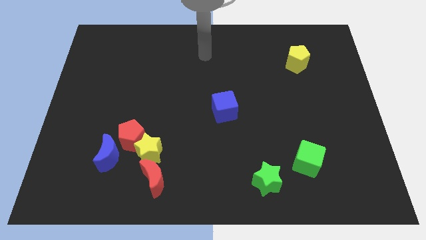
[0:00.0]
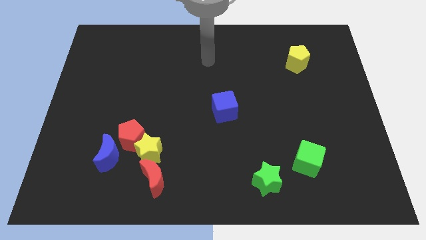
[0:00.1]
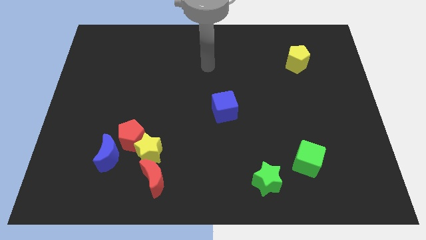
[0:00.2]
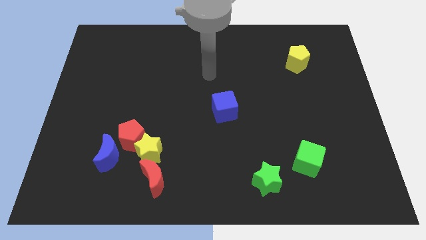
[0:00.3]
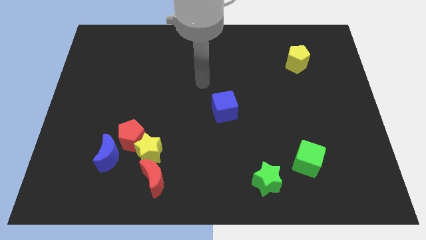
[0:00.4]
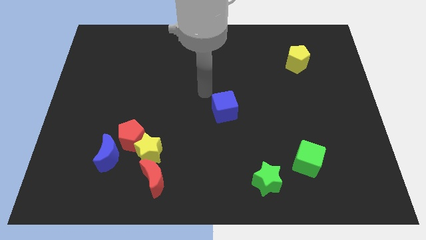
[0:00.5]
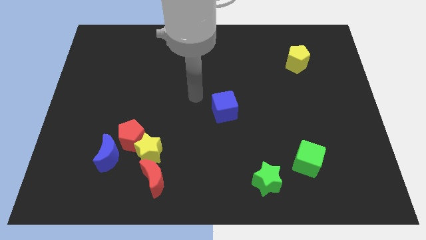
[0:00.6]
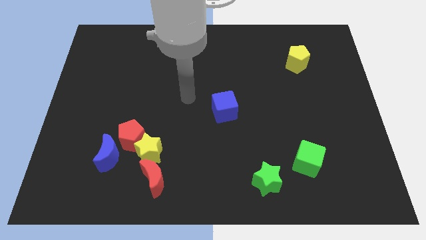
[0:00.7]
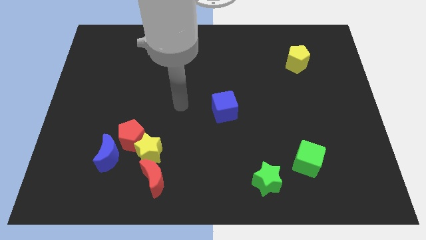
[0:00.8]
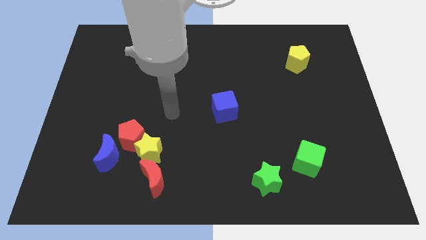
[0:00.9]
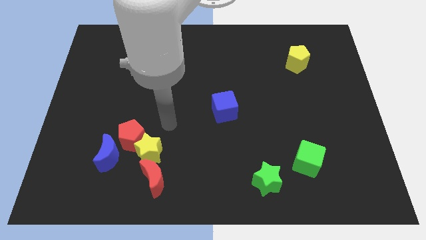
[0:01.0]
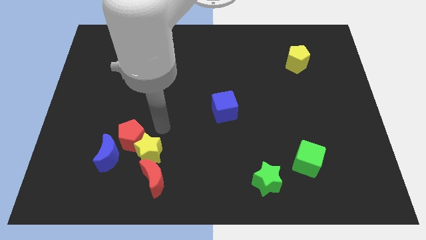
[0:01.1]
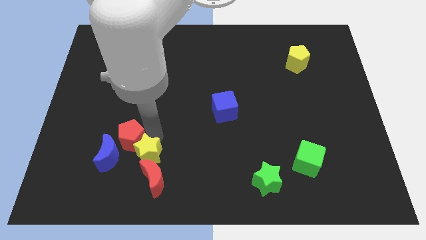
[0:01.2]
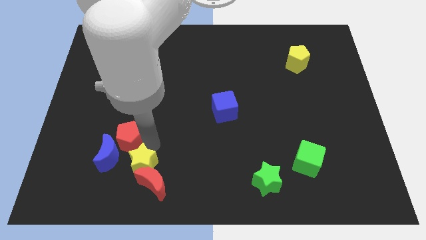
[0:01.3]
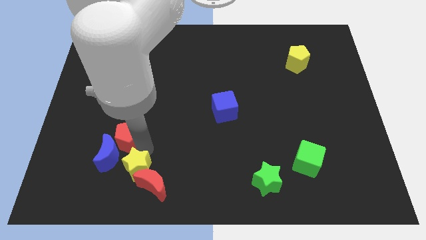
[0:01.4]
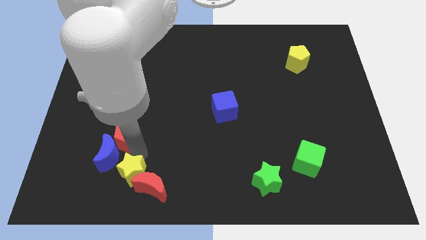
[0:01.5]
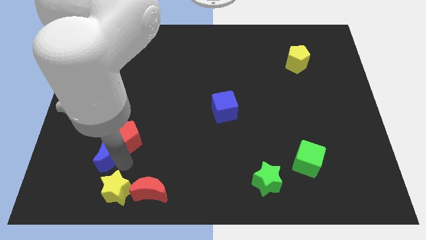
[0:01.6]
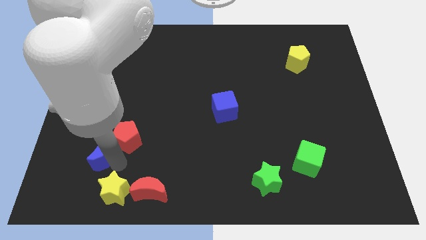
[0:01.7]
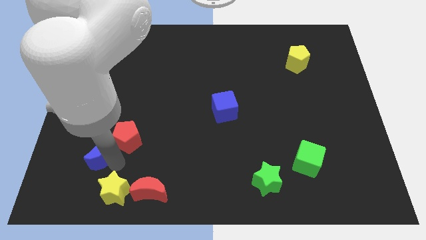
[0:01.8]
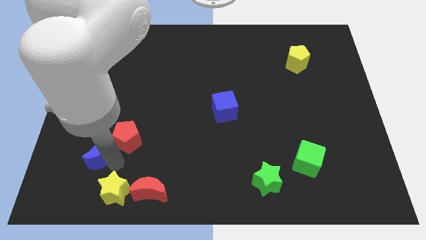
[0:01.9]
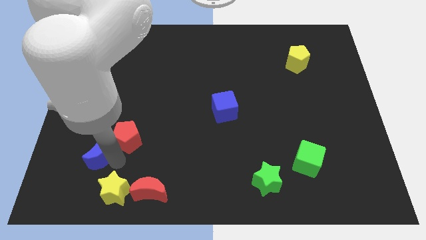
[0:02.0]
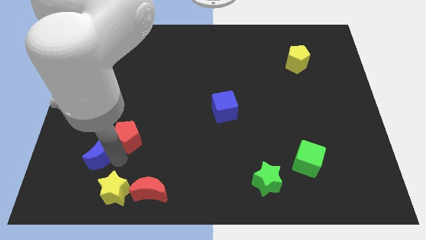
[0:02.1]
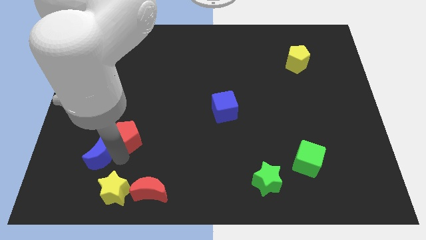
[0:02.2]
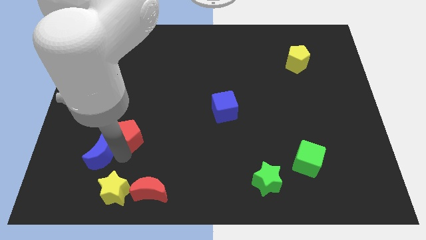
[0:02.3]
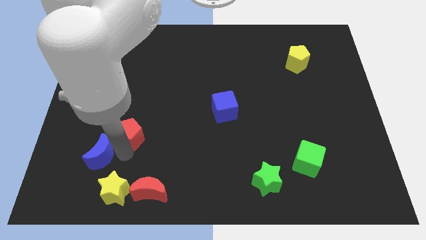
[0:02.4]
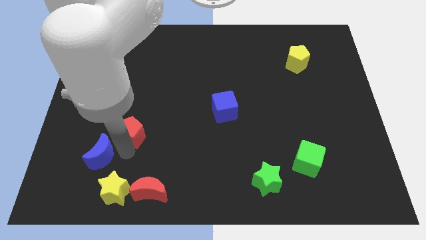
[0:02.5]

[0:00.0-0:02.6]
move the red pentagon away from the yellow star and blue moon

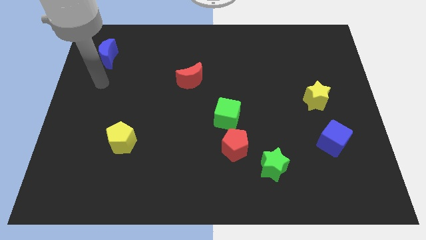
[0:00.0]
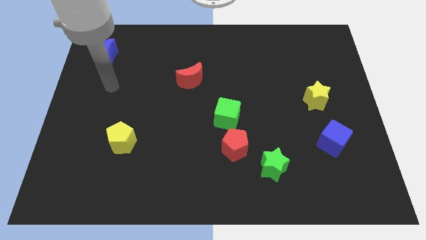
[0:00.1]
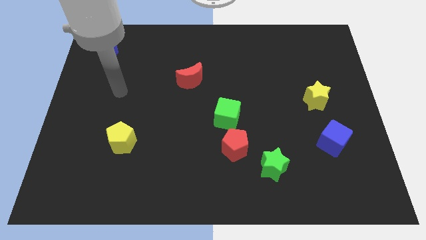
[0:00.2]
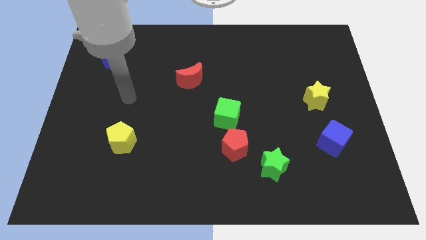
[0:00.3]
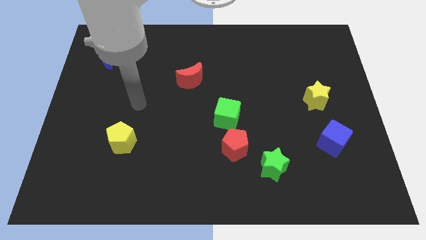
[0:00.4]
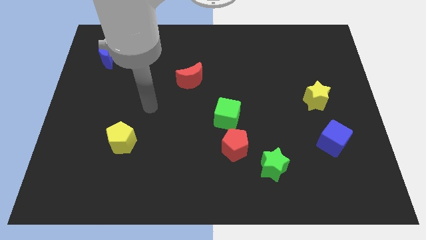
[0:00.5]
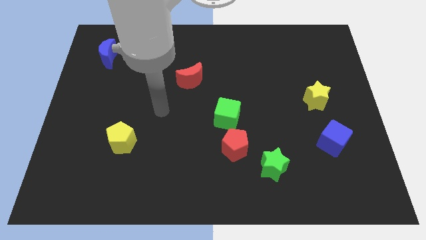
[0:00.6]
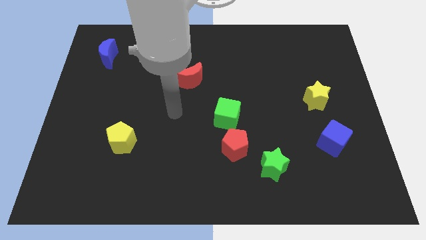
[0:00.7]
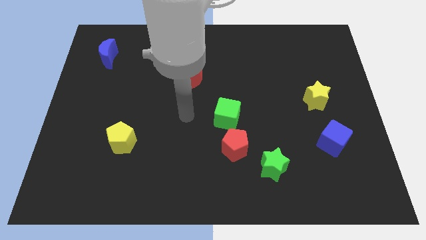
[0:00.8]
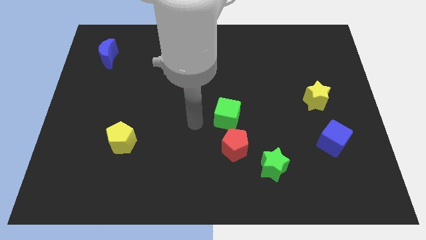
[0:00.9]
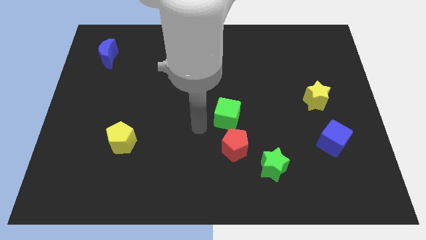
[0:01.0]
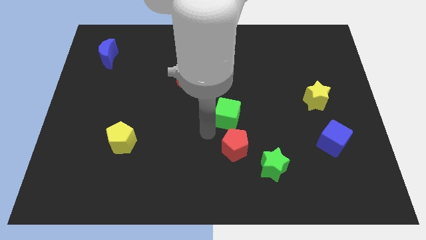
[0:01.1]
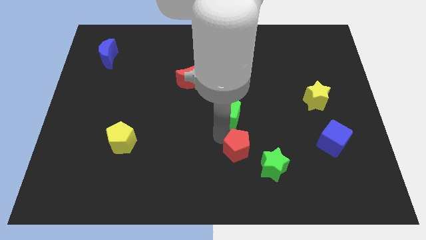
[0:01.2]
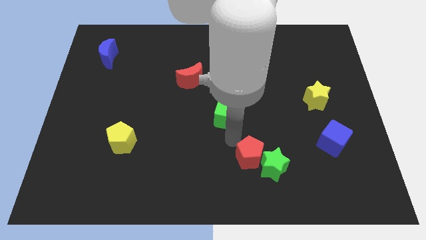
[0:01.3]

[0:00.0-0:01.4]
pull the green cube apart from the red pentagon

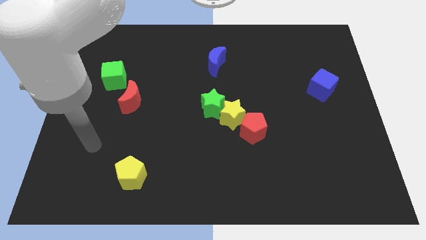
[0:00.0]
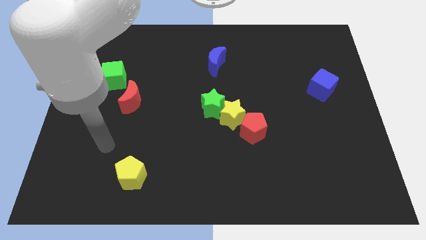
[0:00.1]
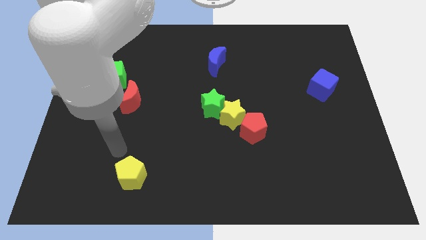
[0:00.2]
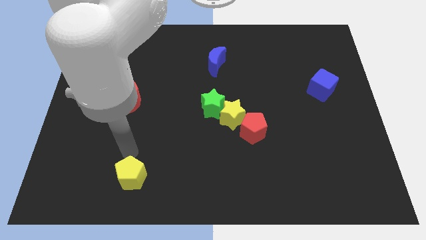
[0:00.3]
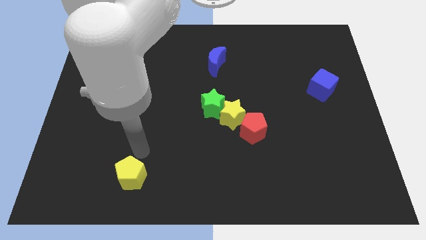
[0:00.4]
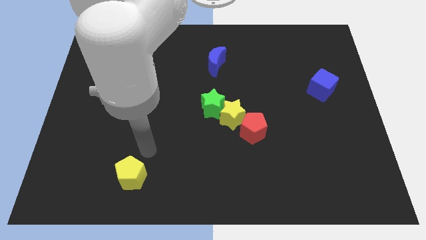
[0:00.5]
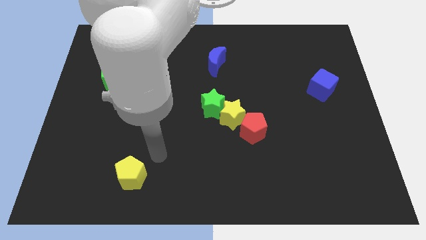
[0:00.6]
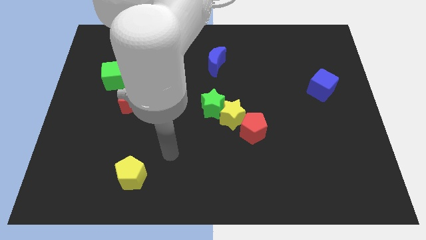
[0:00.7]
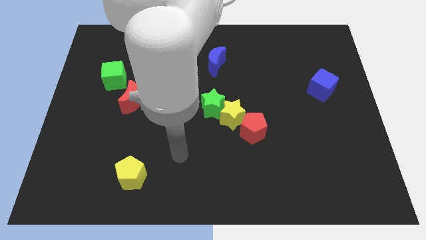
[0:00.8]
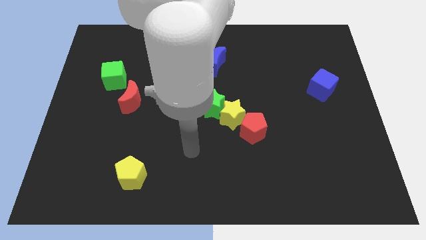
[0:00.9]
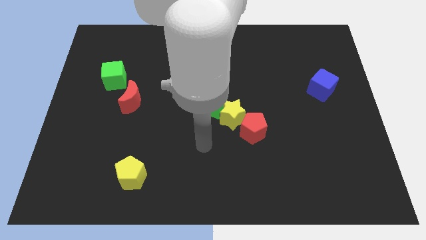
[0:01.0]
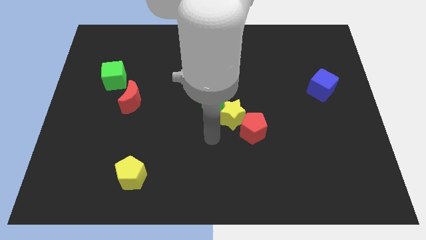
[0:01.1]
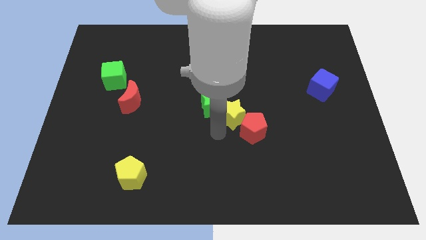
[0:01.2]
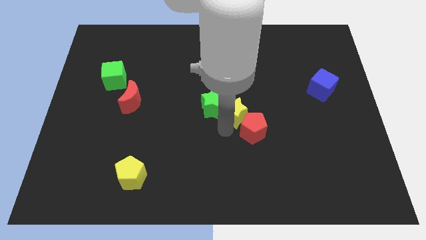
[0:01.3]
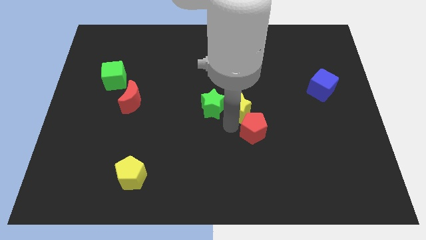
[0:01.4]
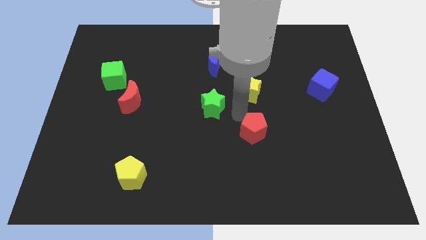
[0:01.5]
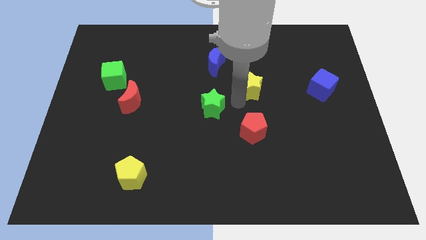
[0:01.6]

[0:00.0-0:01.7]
pull the green star apart from the yellow star

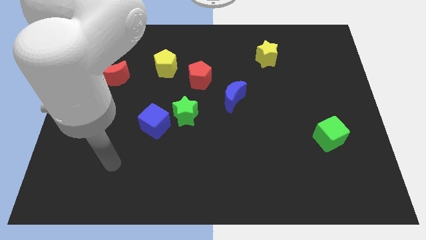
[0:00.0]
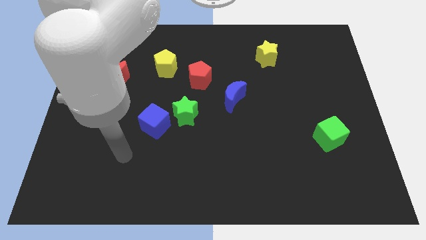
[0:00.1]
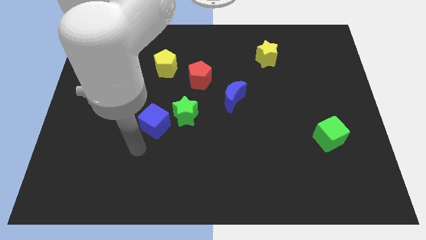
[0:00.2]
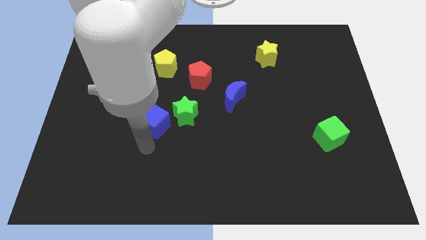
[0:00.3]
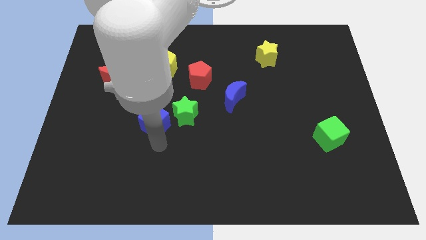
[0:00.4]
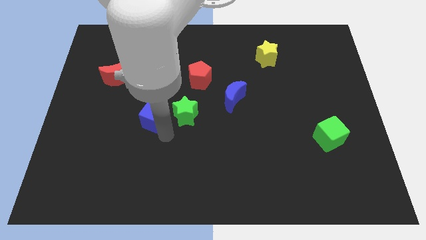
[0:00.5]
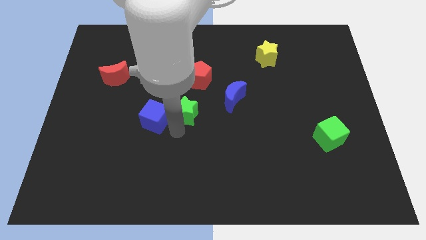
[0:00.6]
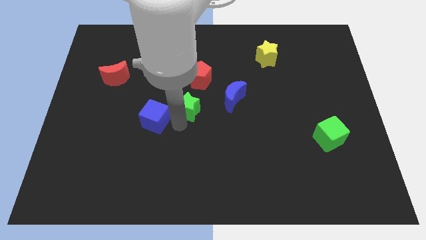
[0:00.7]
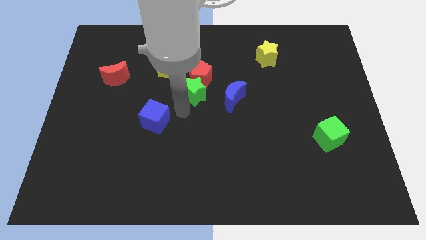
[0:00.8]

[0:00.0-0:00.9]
move the blue cube away from the green star

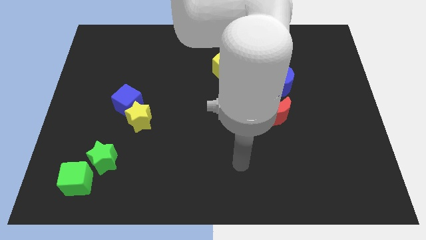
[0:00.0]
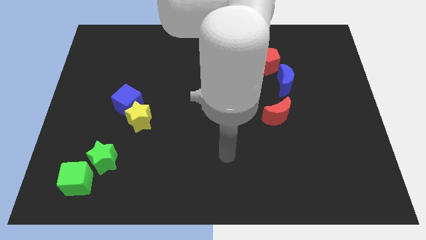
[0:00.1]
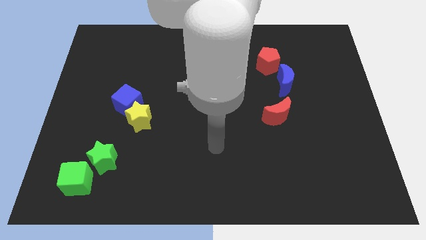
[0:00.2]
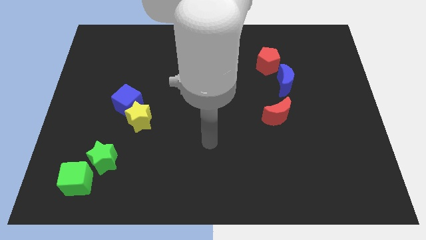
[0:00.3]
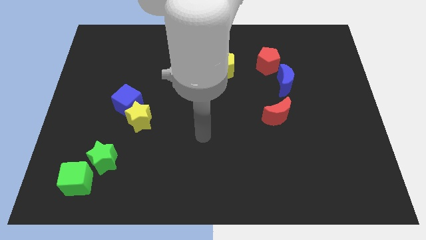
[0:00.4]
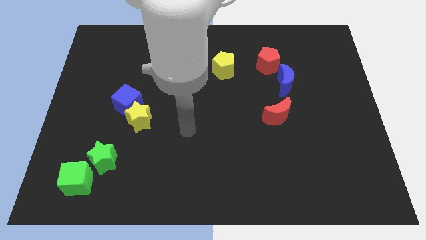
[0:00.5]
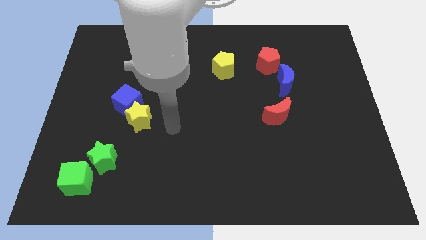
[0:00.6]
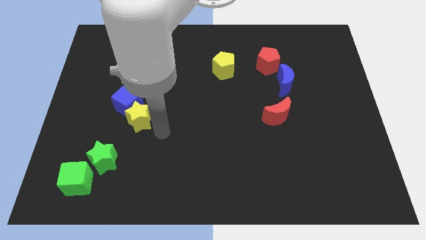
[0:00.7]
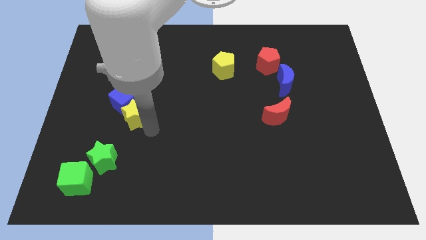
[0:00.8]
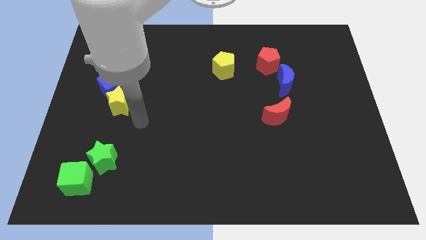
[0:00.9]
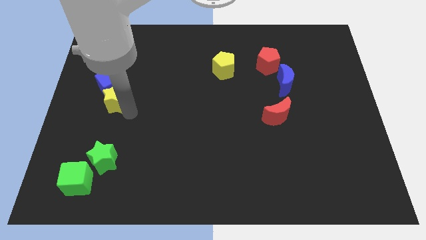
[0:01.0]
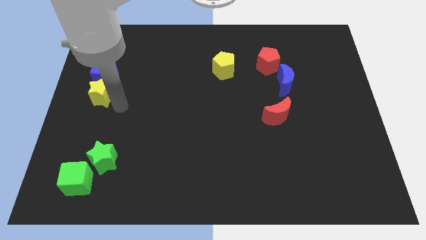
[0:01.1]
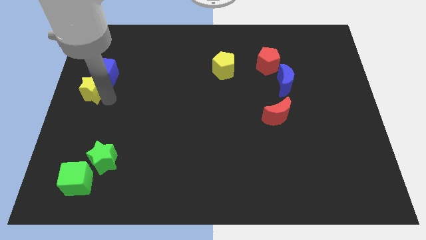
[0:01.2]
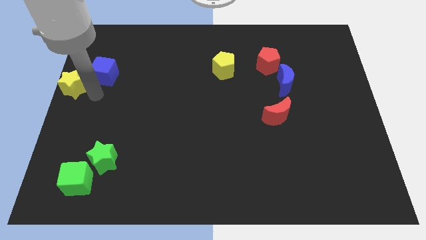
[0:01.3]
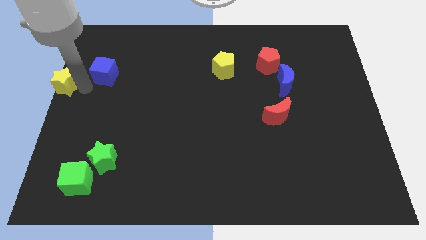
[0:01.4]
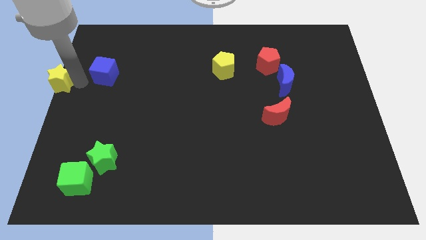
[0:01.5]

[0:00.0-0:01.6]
separate the blue cube from the yellow star

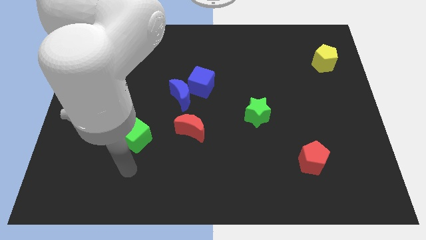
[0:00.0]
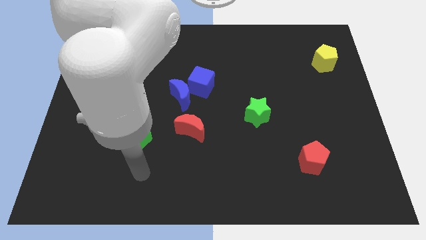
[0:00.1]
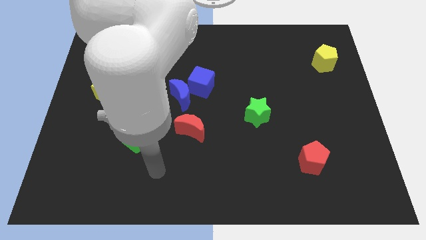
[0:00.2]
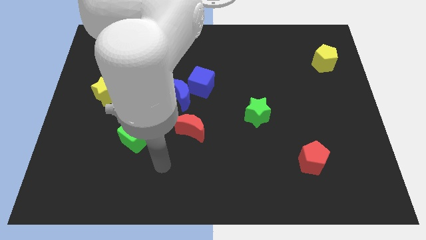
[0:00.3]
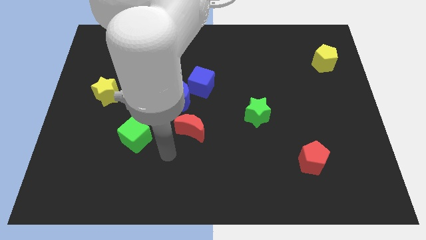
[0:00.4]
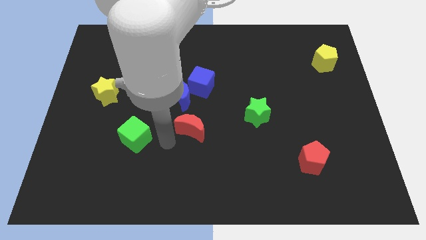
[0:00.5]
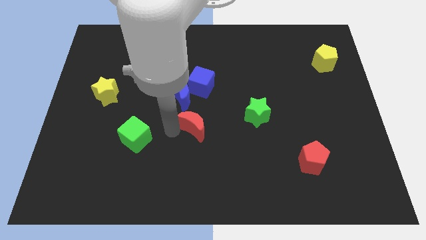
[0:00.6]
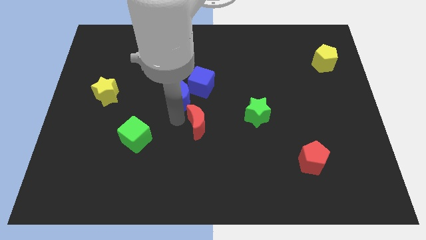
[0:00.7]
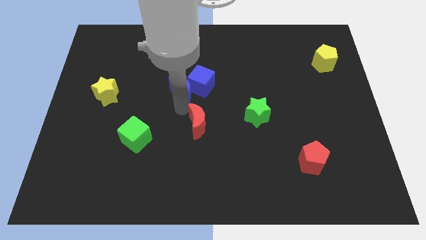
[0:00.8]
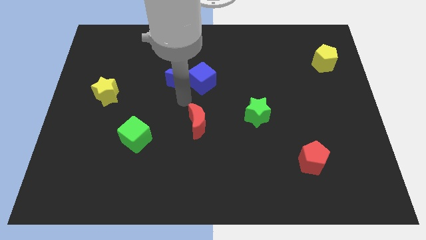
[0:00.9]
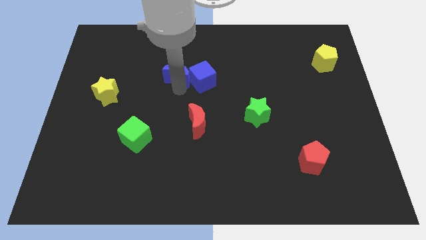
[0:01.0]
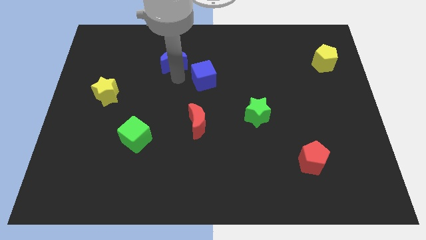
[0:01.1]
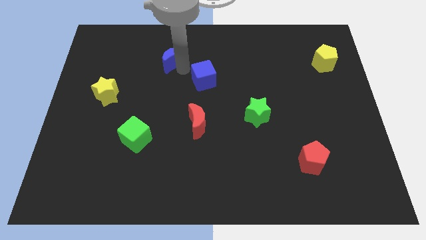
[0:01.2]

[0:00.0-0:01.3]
separate the blue cube from the blue moon
